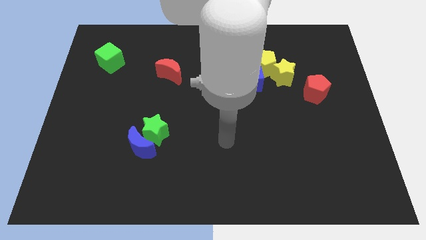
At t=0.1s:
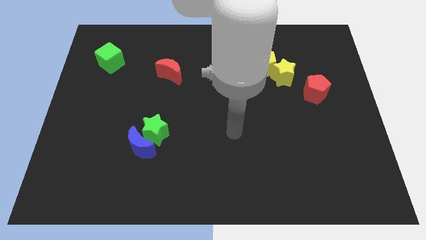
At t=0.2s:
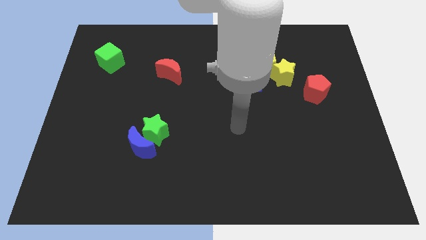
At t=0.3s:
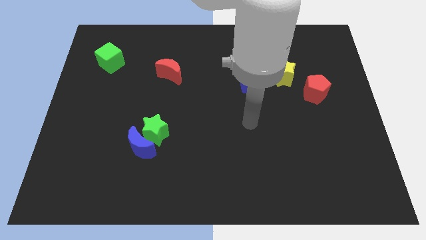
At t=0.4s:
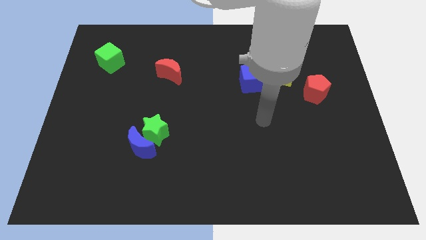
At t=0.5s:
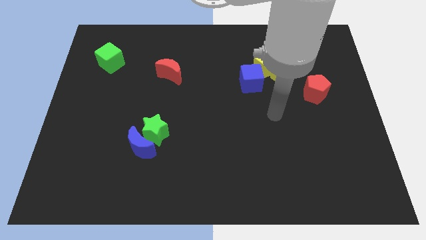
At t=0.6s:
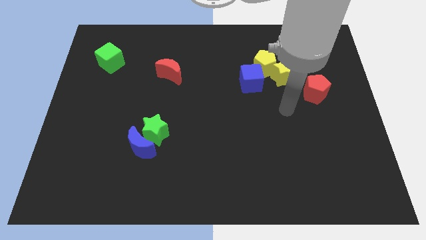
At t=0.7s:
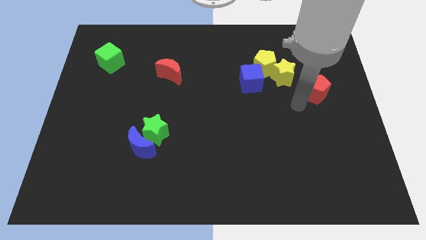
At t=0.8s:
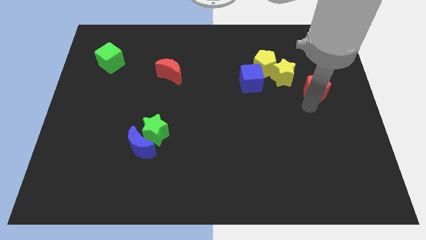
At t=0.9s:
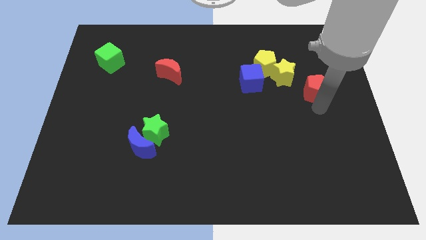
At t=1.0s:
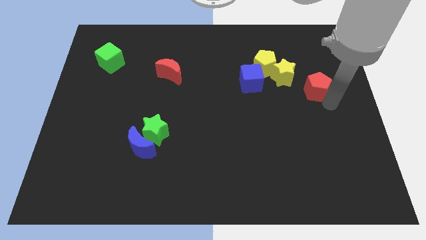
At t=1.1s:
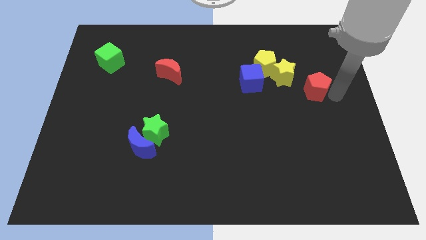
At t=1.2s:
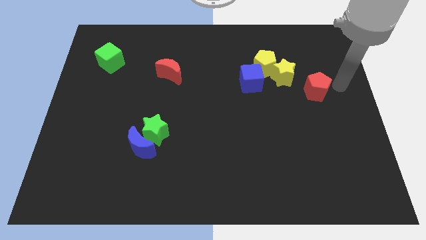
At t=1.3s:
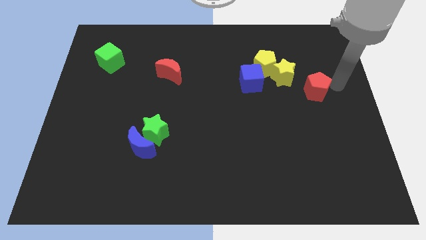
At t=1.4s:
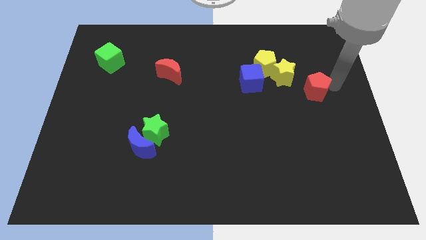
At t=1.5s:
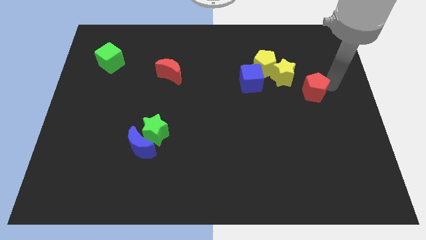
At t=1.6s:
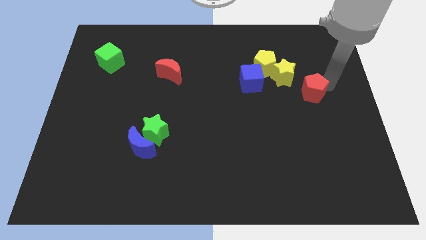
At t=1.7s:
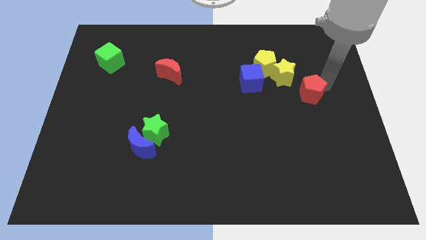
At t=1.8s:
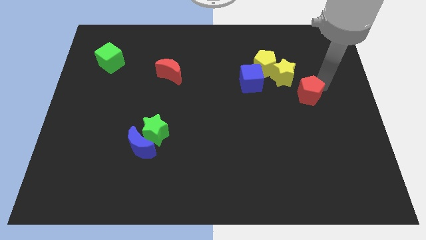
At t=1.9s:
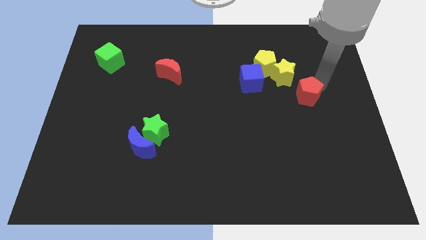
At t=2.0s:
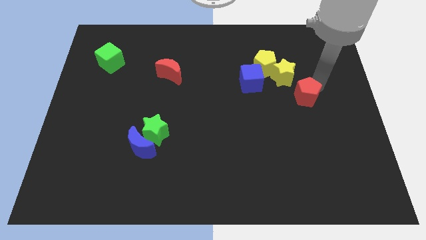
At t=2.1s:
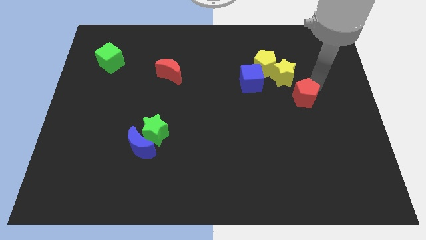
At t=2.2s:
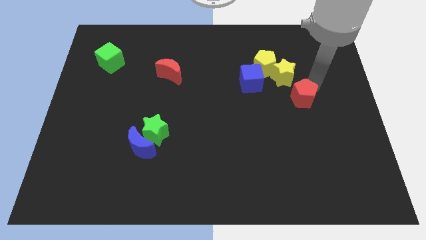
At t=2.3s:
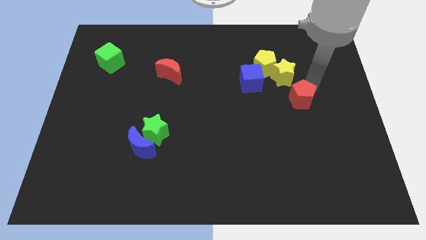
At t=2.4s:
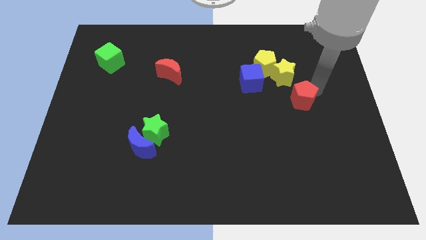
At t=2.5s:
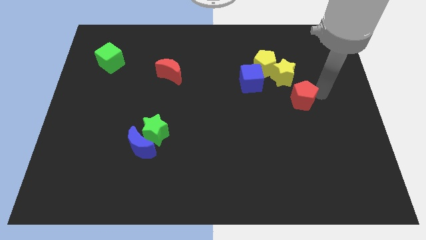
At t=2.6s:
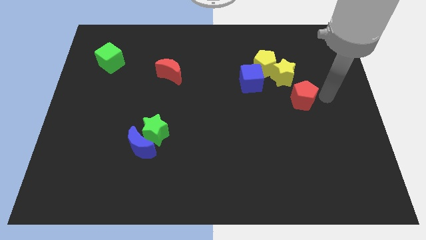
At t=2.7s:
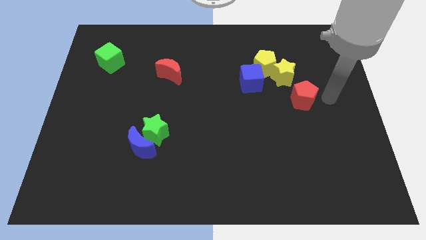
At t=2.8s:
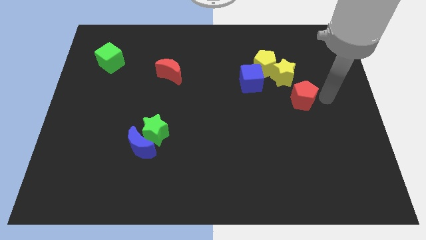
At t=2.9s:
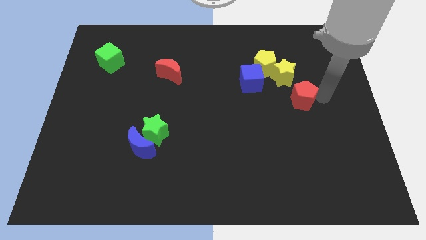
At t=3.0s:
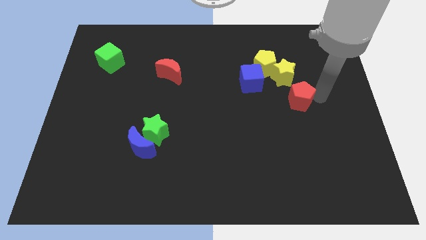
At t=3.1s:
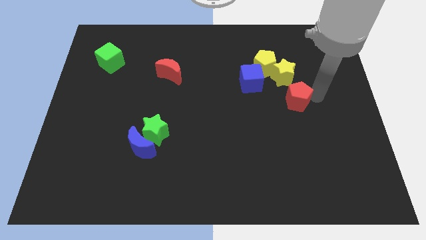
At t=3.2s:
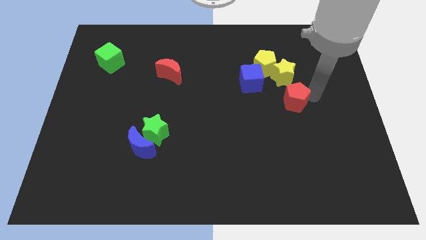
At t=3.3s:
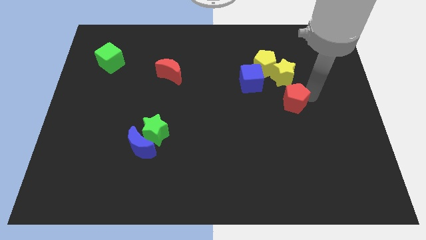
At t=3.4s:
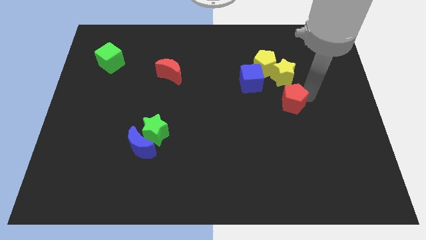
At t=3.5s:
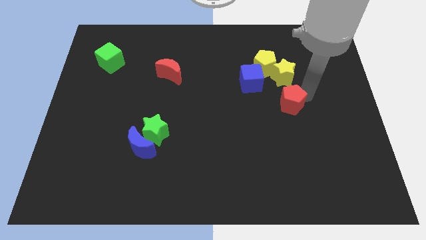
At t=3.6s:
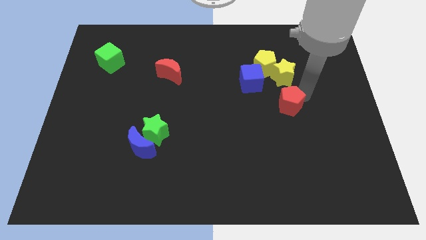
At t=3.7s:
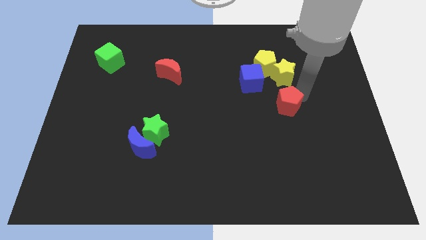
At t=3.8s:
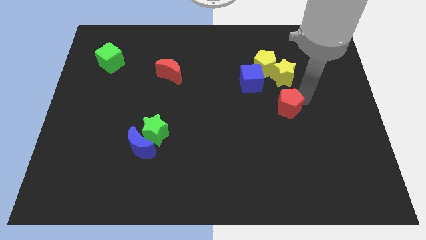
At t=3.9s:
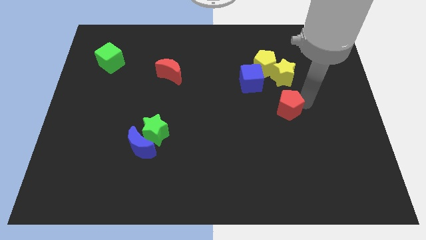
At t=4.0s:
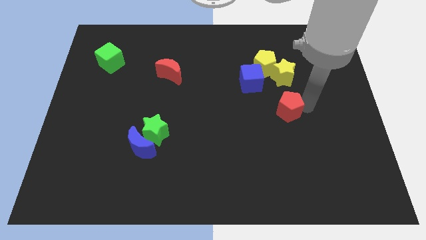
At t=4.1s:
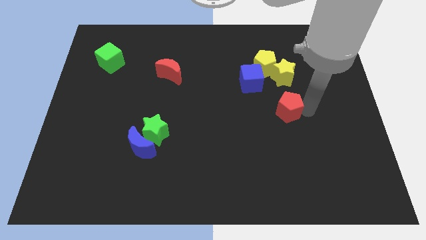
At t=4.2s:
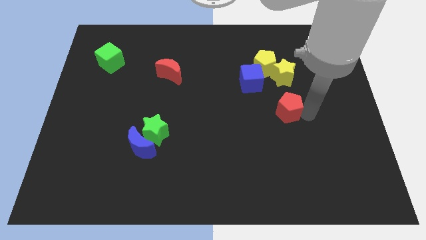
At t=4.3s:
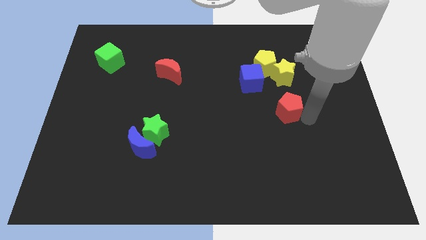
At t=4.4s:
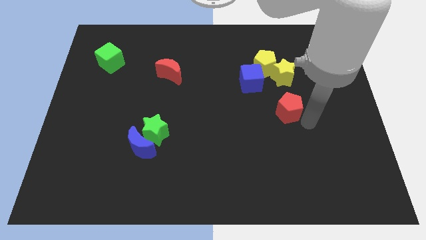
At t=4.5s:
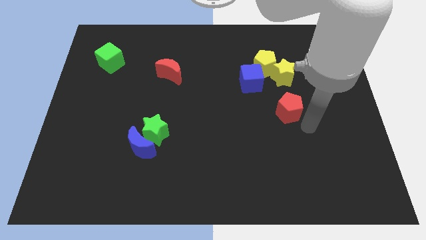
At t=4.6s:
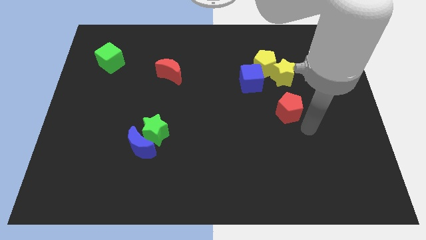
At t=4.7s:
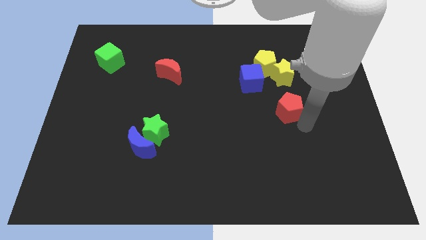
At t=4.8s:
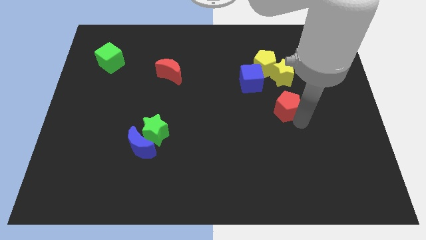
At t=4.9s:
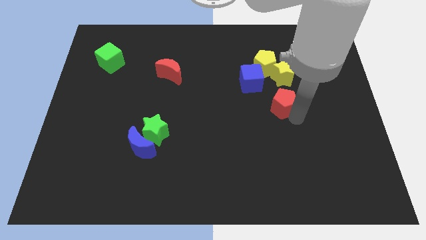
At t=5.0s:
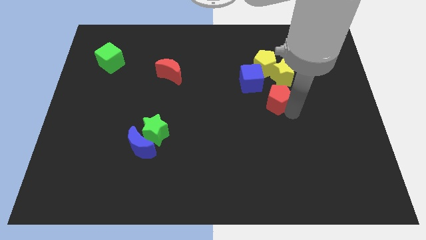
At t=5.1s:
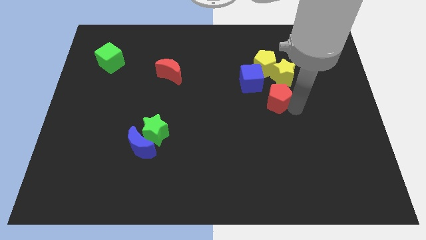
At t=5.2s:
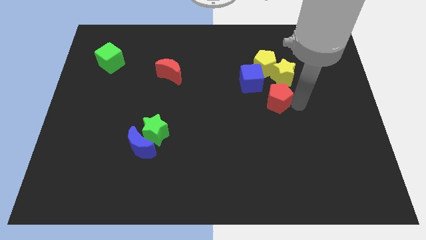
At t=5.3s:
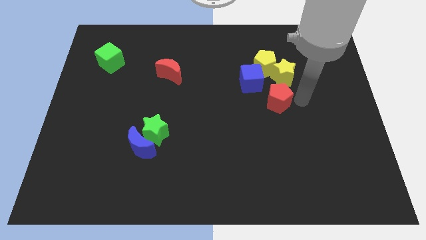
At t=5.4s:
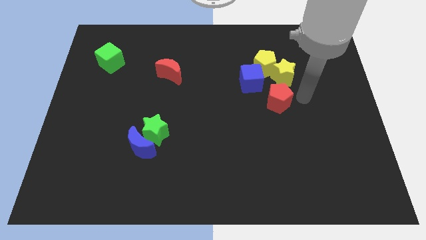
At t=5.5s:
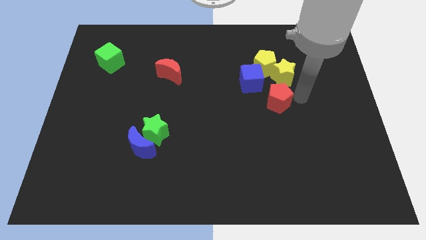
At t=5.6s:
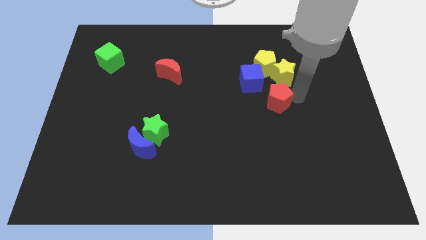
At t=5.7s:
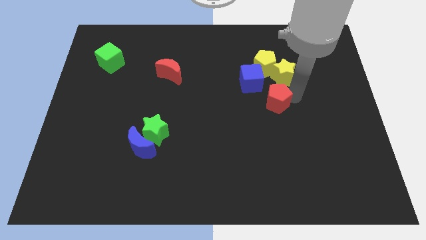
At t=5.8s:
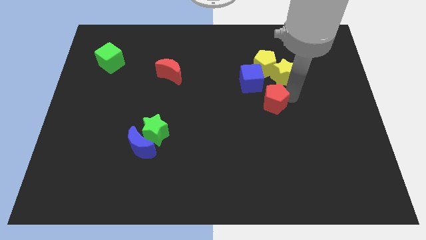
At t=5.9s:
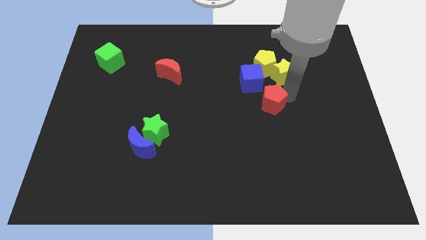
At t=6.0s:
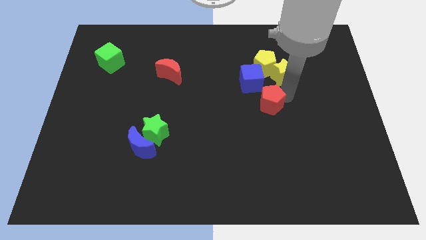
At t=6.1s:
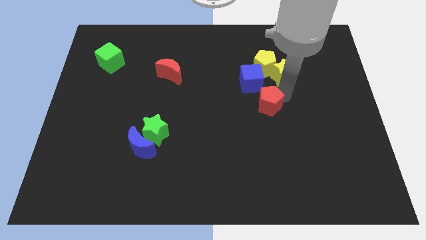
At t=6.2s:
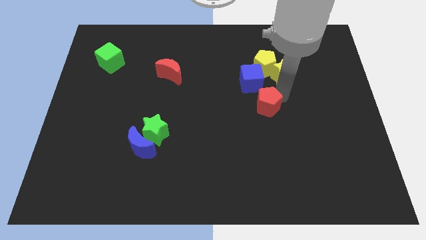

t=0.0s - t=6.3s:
push the red pentagon to the center of the board

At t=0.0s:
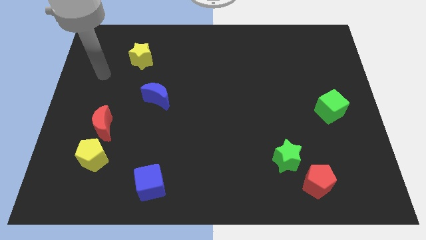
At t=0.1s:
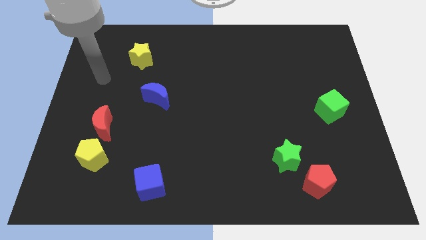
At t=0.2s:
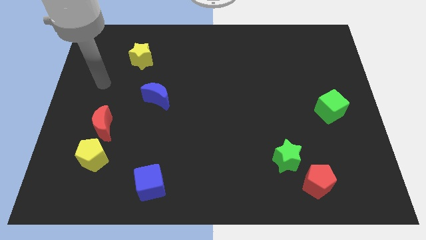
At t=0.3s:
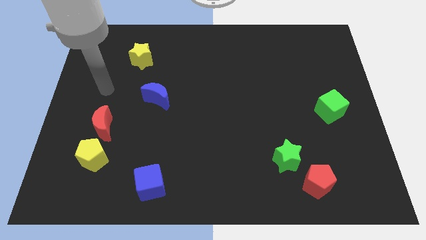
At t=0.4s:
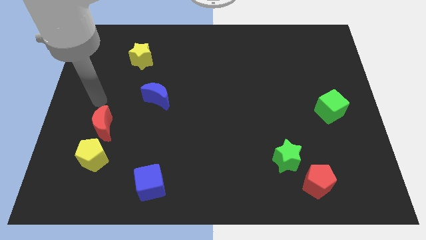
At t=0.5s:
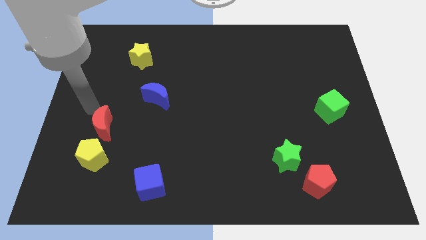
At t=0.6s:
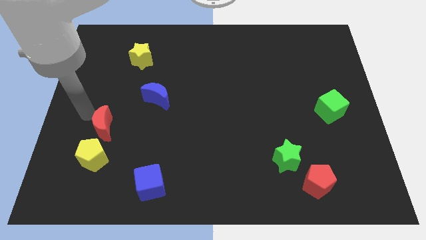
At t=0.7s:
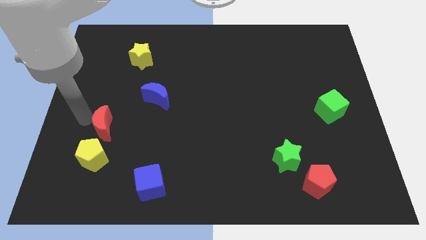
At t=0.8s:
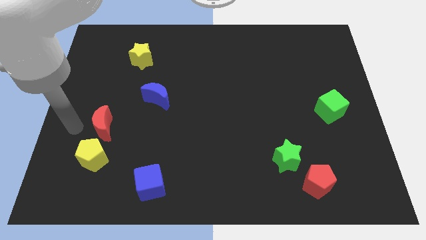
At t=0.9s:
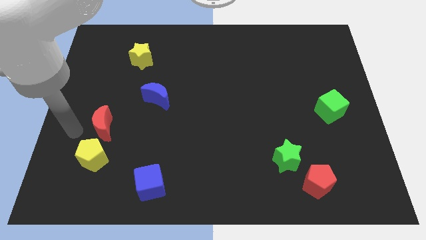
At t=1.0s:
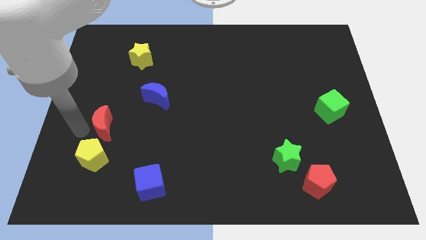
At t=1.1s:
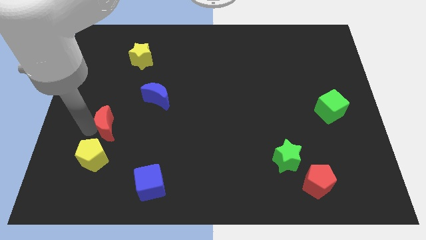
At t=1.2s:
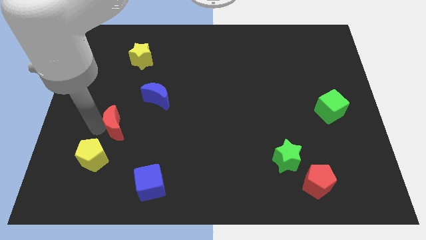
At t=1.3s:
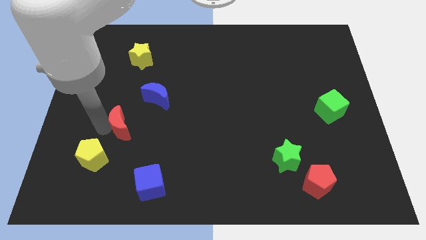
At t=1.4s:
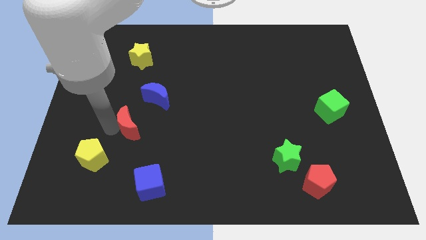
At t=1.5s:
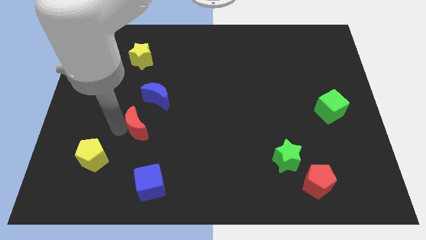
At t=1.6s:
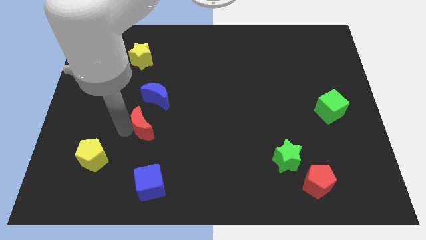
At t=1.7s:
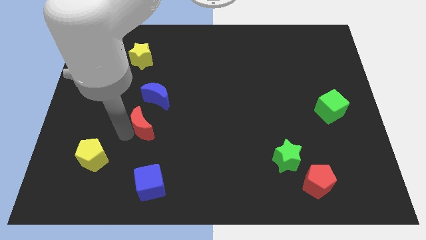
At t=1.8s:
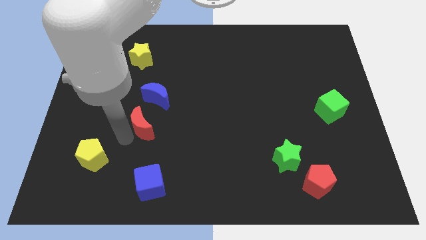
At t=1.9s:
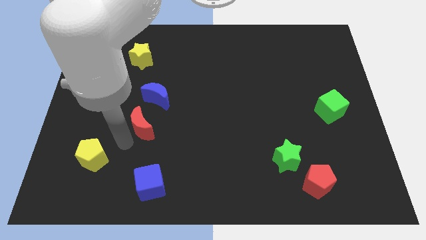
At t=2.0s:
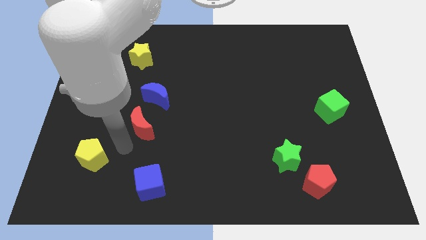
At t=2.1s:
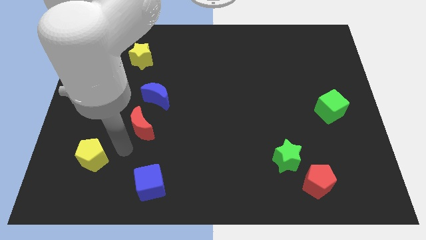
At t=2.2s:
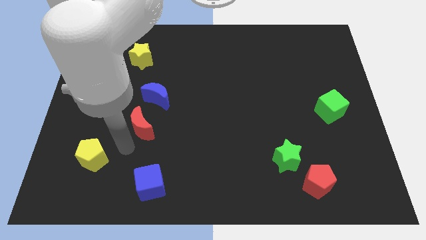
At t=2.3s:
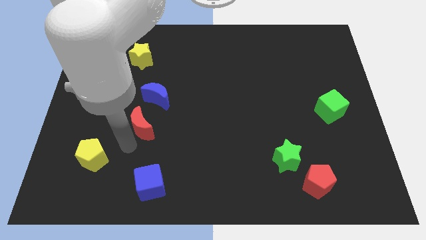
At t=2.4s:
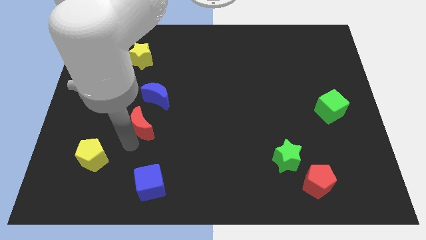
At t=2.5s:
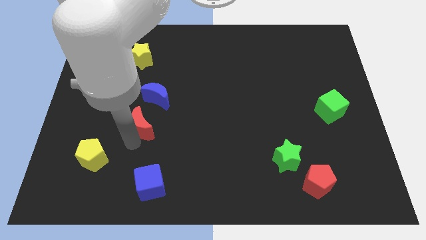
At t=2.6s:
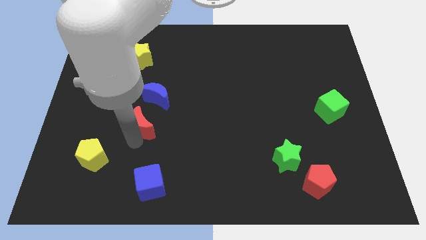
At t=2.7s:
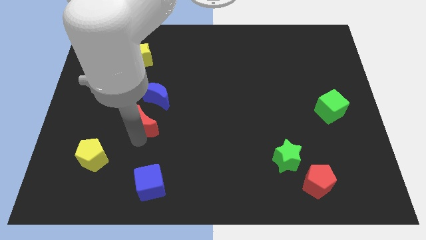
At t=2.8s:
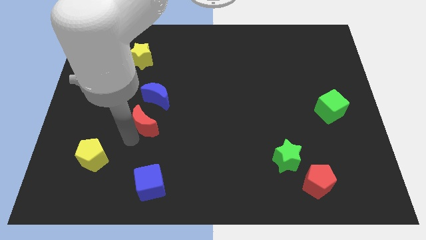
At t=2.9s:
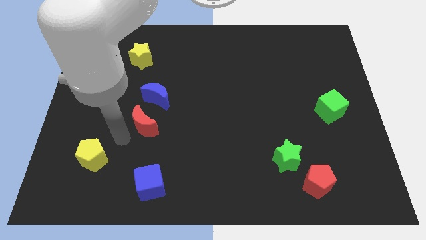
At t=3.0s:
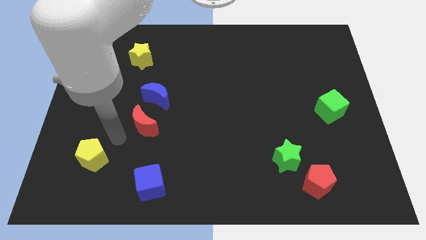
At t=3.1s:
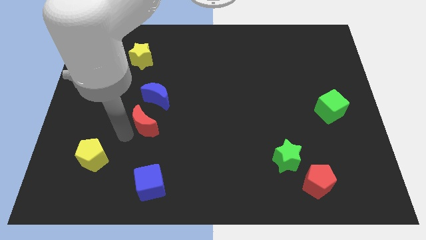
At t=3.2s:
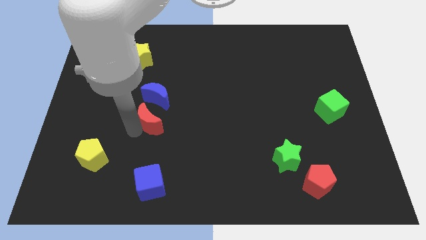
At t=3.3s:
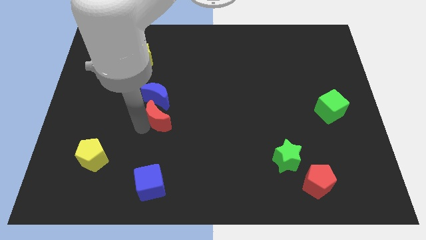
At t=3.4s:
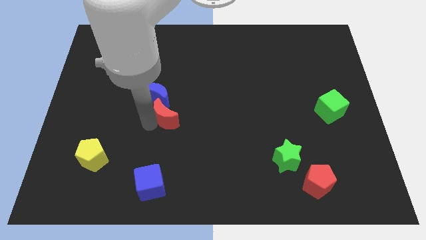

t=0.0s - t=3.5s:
put the red moon to the center
